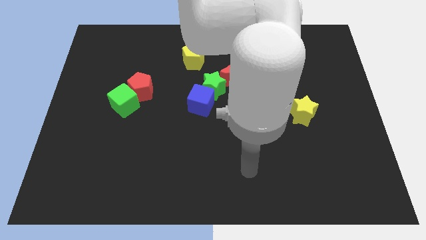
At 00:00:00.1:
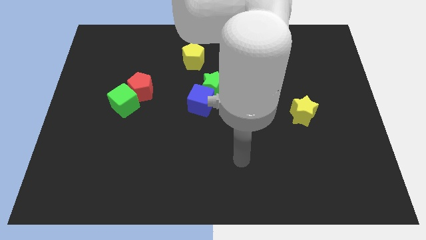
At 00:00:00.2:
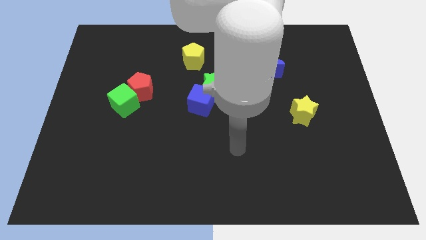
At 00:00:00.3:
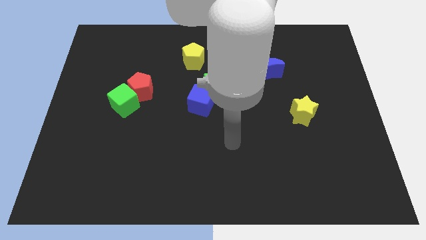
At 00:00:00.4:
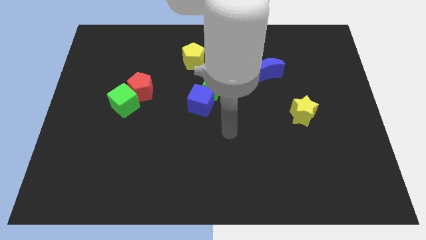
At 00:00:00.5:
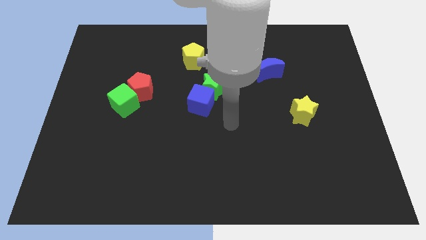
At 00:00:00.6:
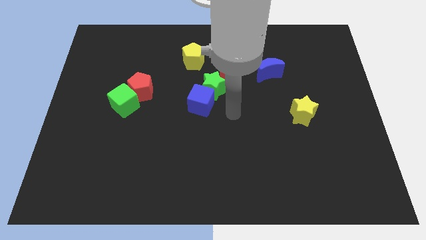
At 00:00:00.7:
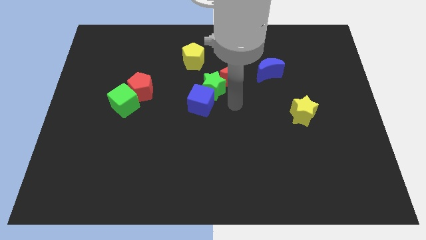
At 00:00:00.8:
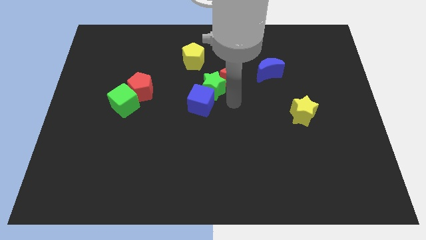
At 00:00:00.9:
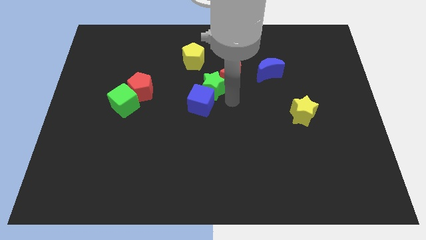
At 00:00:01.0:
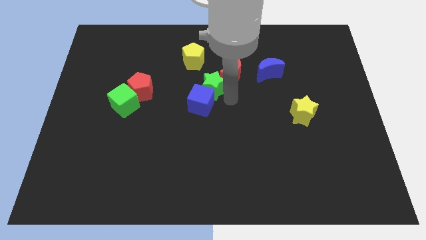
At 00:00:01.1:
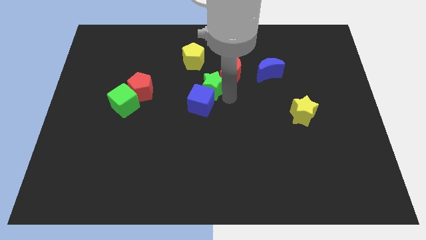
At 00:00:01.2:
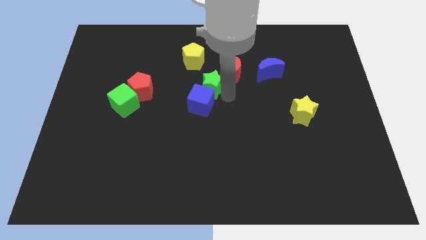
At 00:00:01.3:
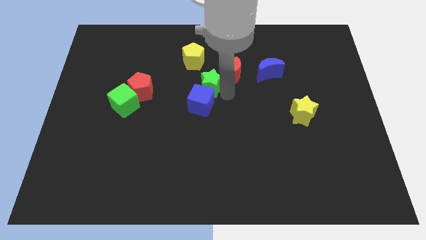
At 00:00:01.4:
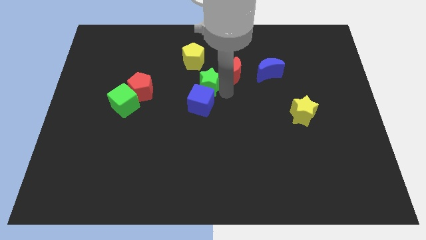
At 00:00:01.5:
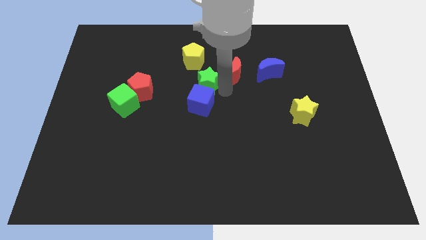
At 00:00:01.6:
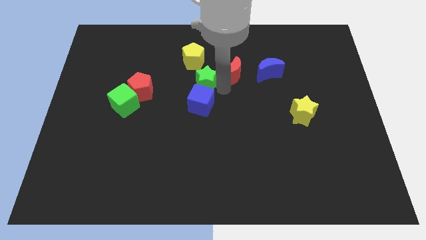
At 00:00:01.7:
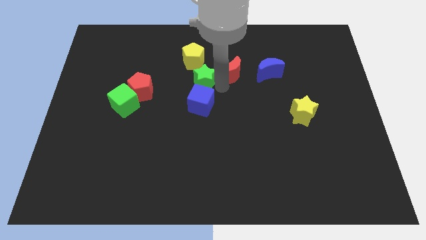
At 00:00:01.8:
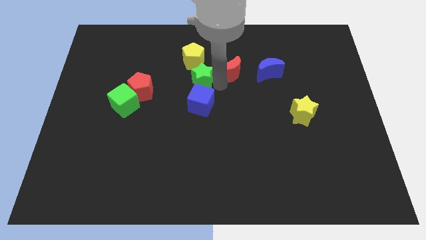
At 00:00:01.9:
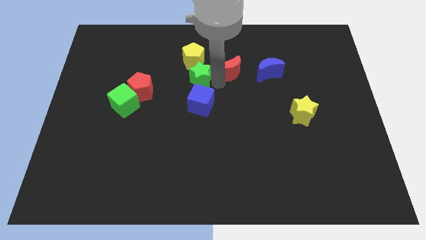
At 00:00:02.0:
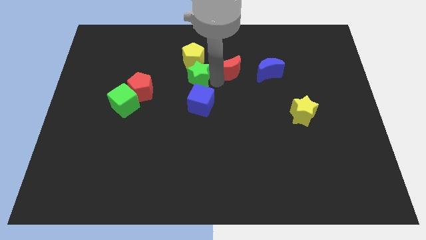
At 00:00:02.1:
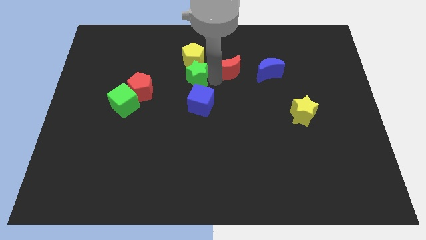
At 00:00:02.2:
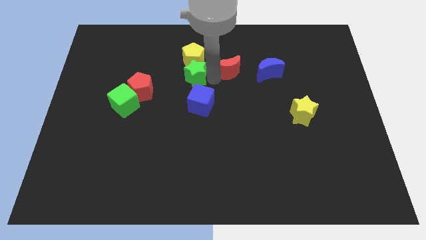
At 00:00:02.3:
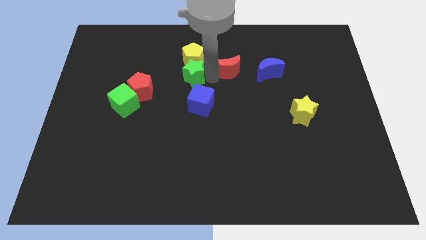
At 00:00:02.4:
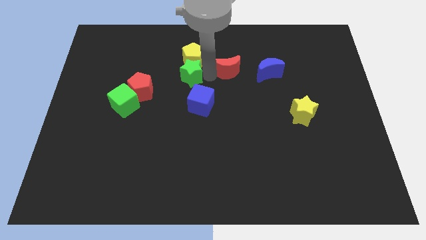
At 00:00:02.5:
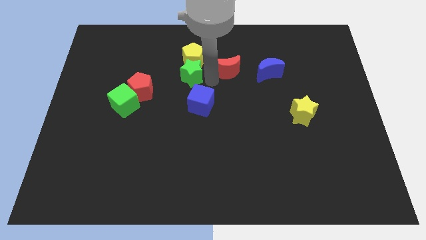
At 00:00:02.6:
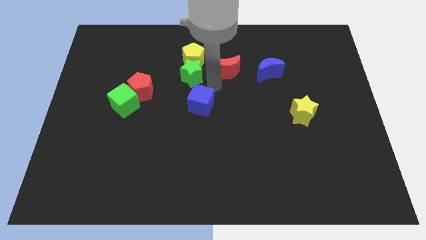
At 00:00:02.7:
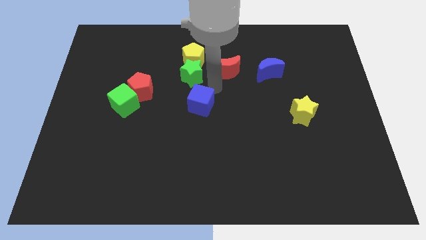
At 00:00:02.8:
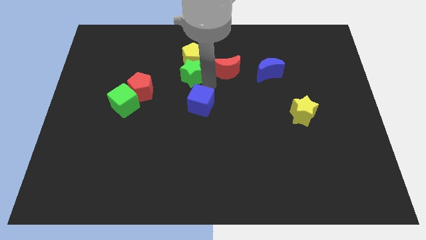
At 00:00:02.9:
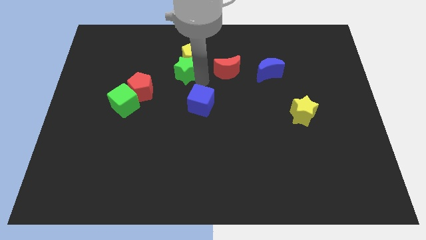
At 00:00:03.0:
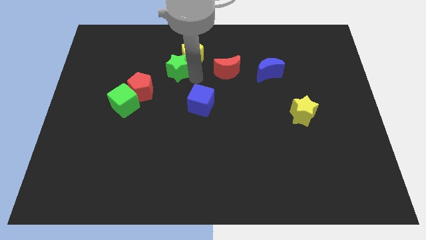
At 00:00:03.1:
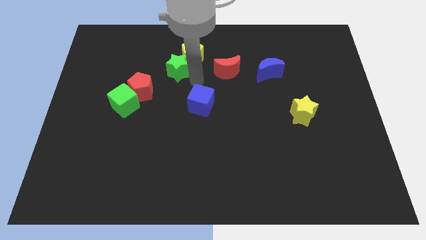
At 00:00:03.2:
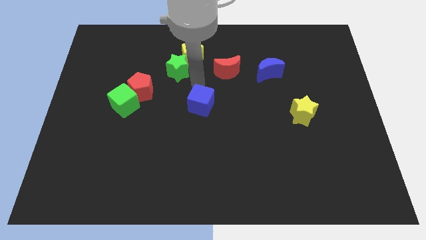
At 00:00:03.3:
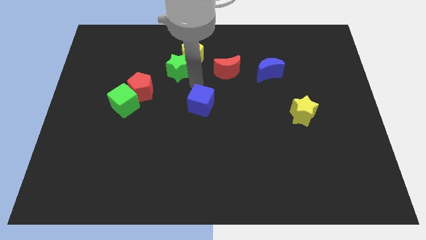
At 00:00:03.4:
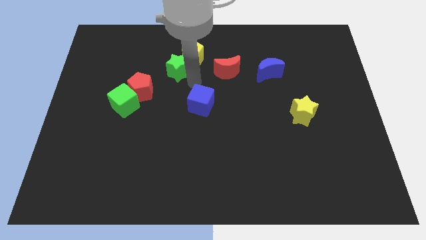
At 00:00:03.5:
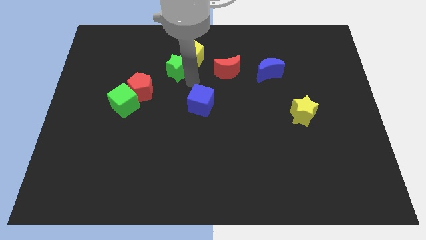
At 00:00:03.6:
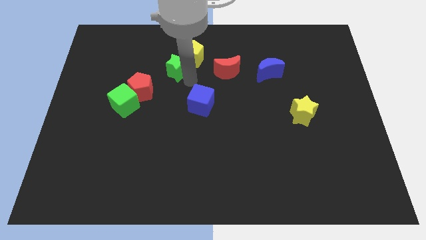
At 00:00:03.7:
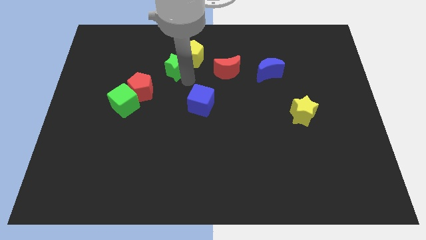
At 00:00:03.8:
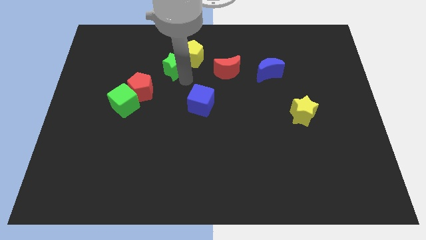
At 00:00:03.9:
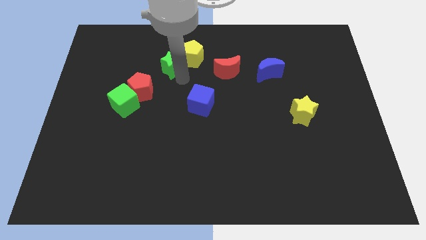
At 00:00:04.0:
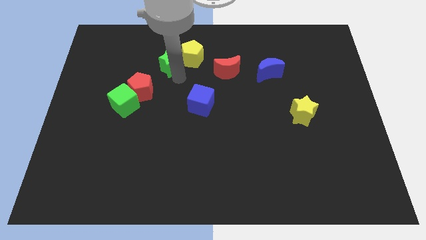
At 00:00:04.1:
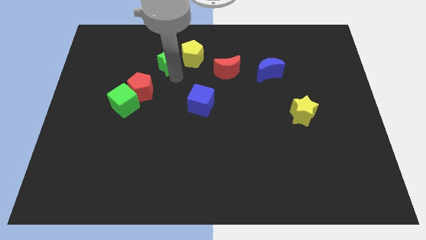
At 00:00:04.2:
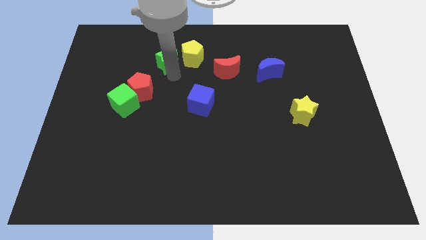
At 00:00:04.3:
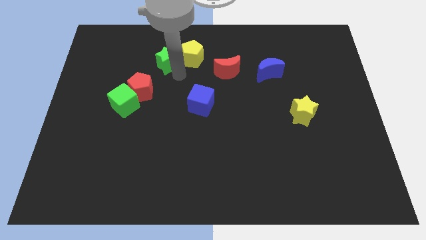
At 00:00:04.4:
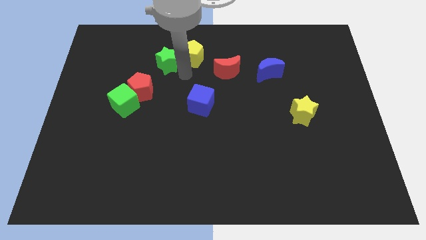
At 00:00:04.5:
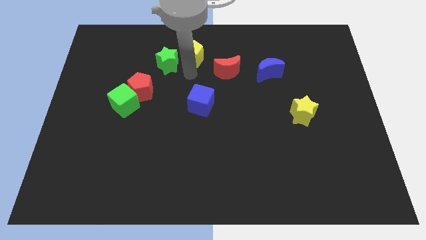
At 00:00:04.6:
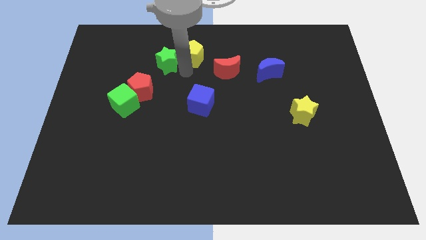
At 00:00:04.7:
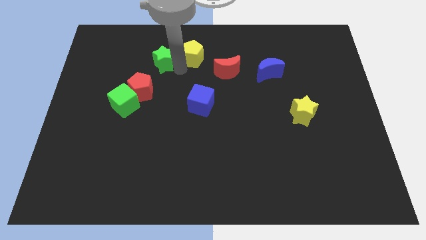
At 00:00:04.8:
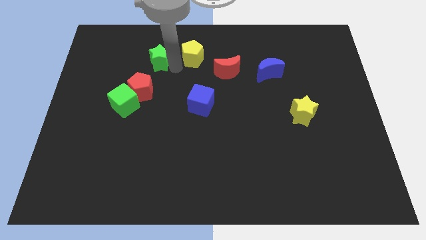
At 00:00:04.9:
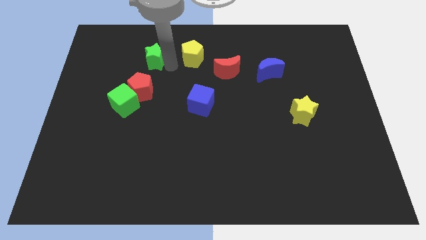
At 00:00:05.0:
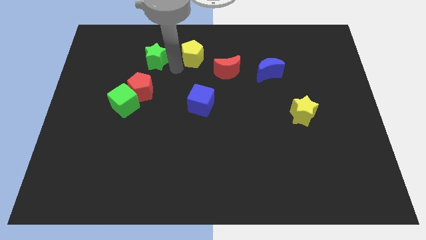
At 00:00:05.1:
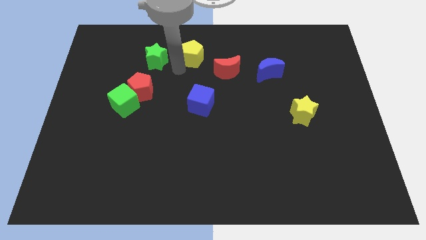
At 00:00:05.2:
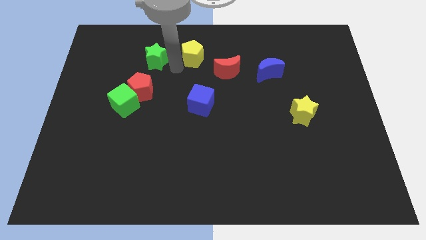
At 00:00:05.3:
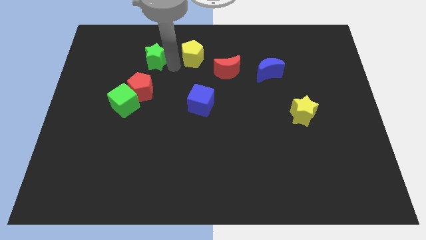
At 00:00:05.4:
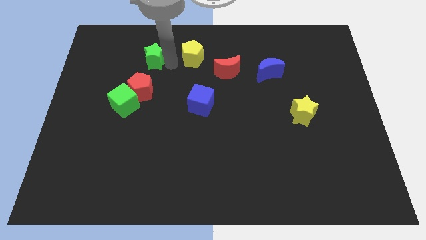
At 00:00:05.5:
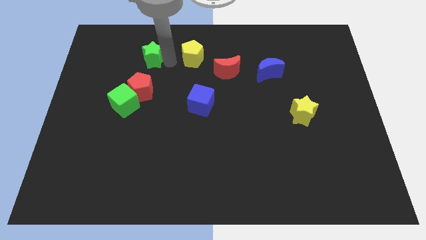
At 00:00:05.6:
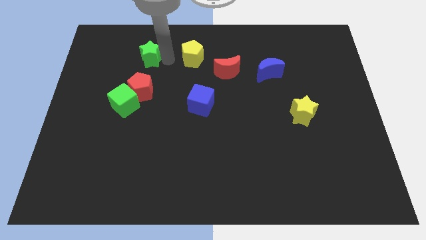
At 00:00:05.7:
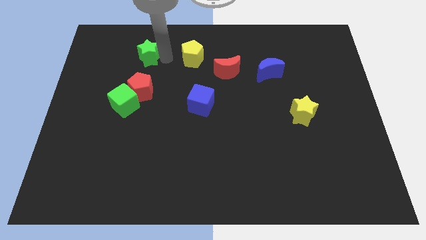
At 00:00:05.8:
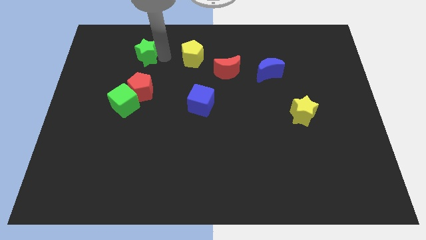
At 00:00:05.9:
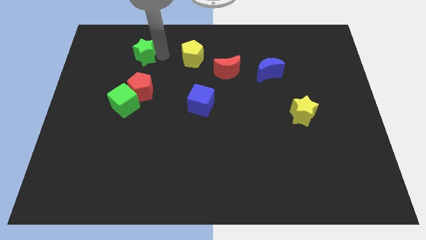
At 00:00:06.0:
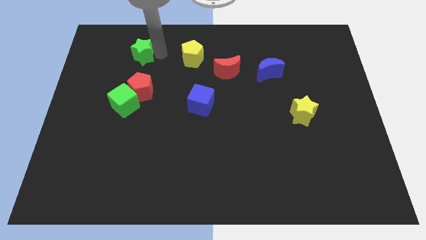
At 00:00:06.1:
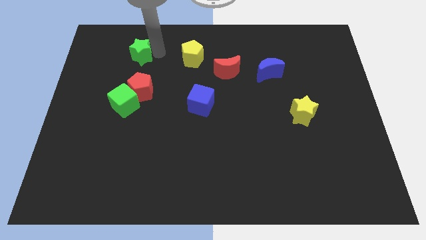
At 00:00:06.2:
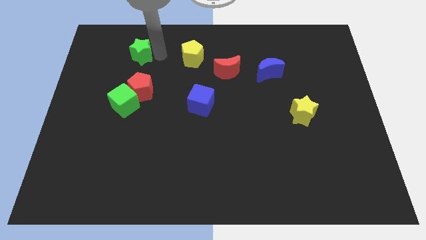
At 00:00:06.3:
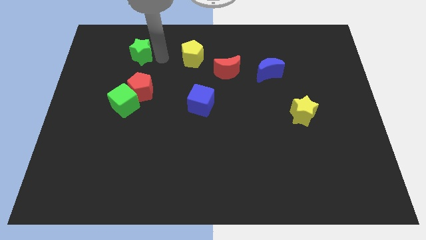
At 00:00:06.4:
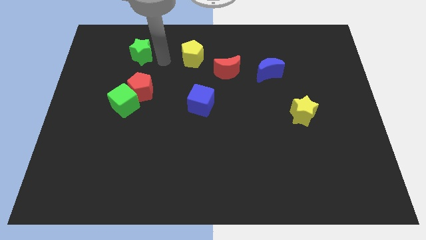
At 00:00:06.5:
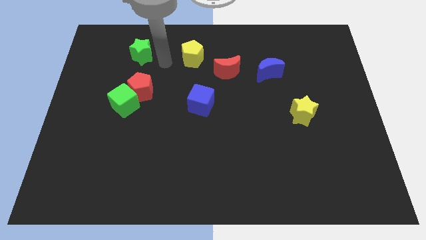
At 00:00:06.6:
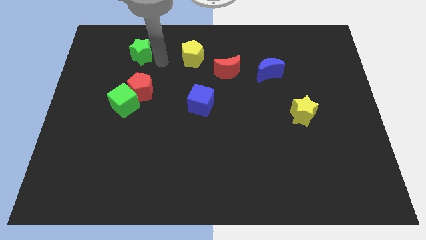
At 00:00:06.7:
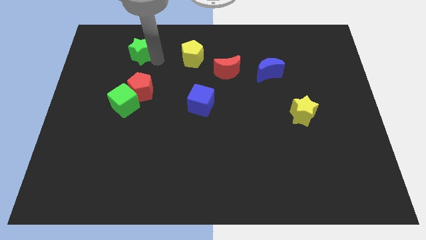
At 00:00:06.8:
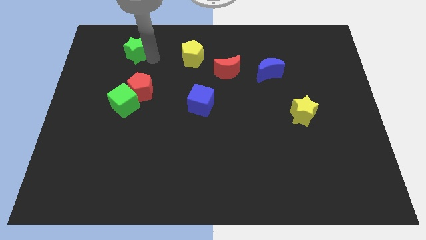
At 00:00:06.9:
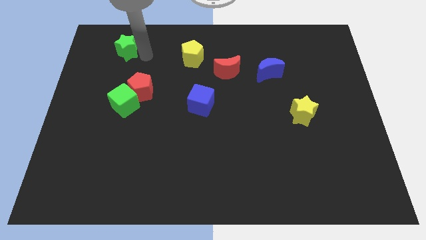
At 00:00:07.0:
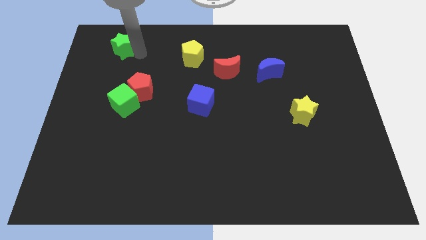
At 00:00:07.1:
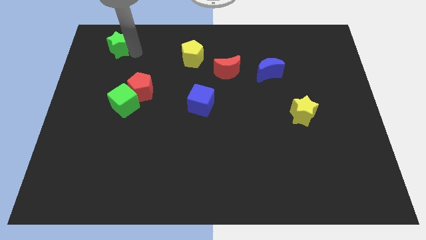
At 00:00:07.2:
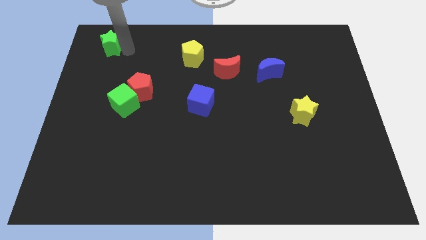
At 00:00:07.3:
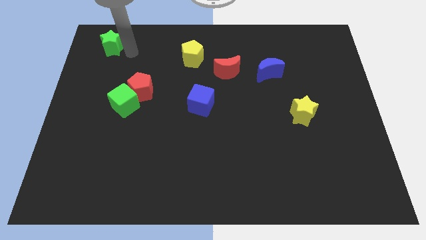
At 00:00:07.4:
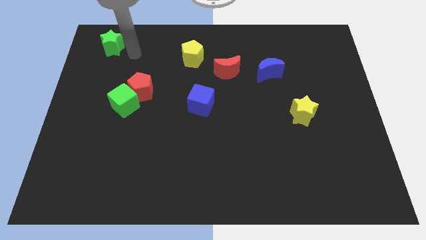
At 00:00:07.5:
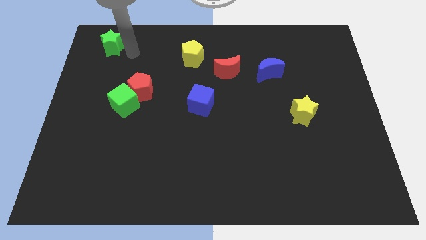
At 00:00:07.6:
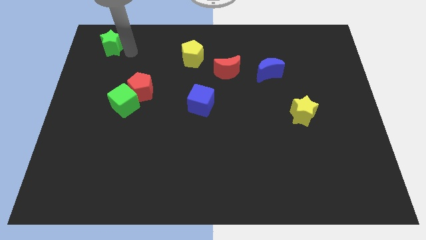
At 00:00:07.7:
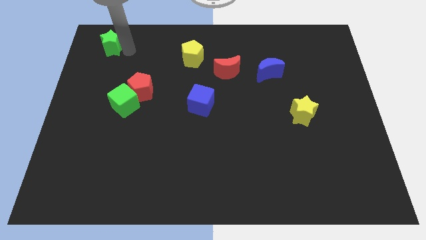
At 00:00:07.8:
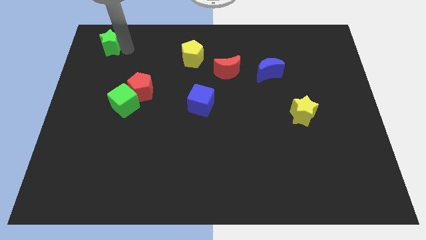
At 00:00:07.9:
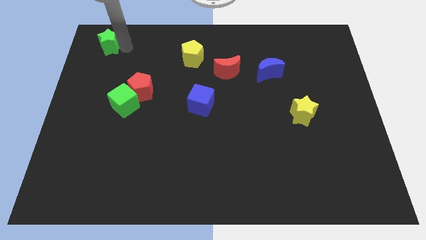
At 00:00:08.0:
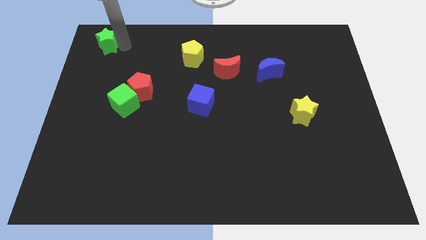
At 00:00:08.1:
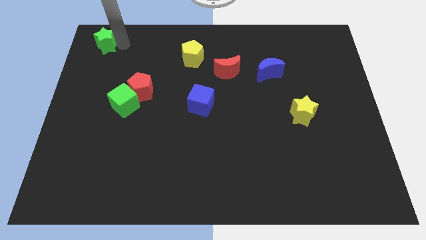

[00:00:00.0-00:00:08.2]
move the green star to the top left of the board
